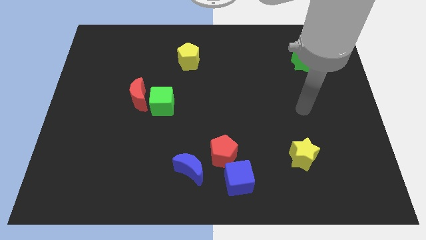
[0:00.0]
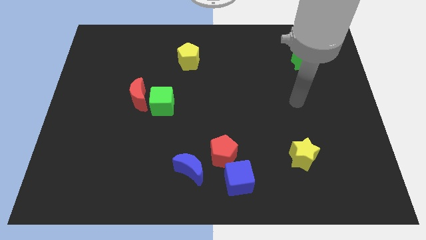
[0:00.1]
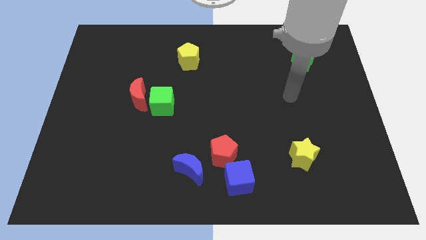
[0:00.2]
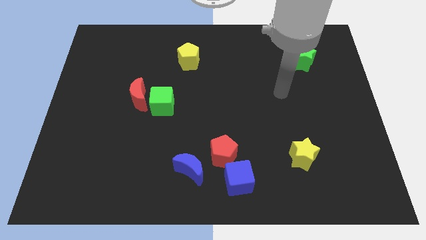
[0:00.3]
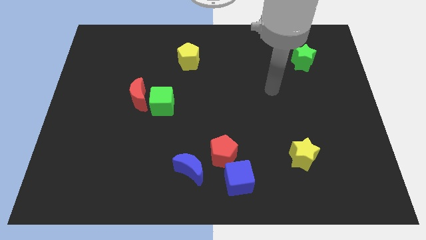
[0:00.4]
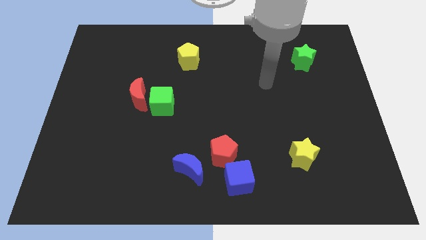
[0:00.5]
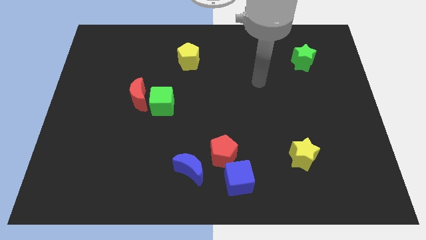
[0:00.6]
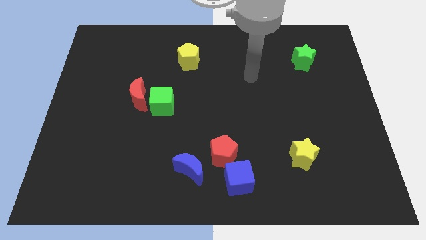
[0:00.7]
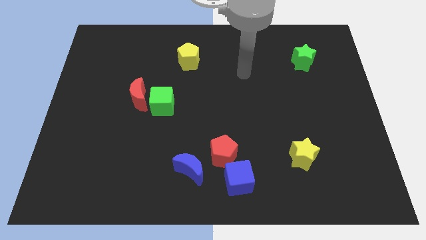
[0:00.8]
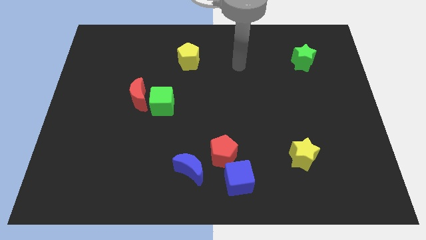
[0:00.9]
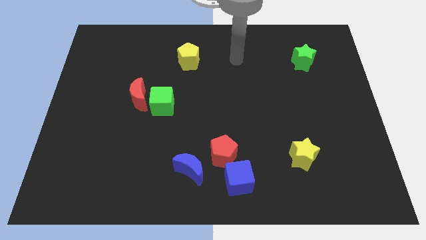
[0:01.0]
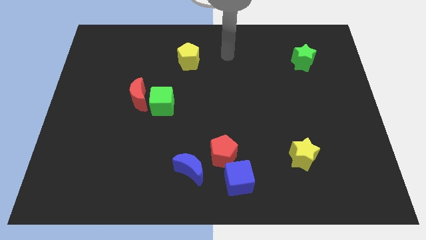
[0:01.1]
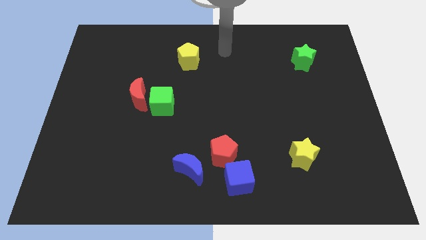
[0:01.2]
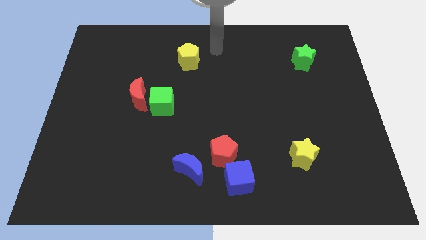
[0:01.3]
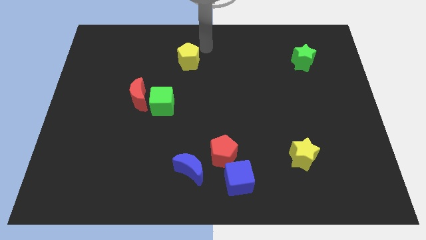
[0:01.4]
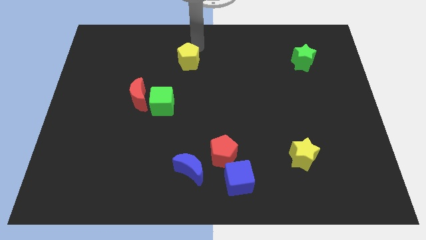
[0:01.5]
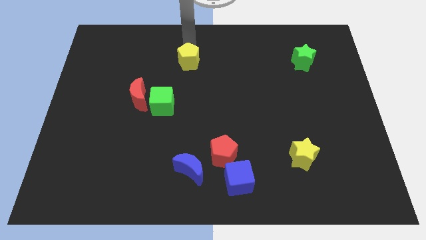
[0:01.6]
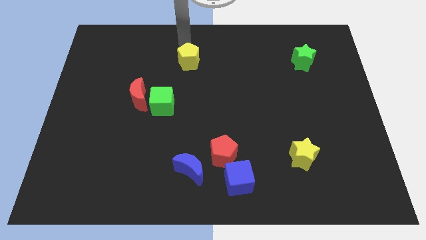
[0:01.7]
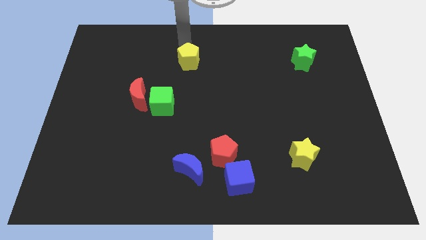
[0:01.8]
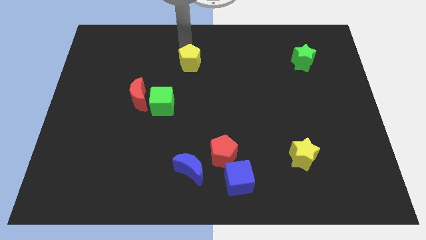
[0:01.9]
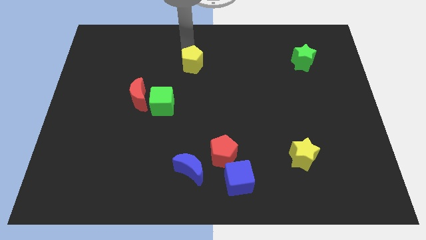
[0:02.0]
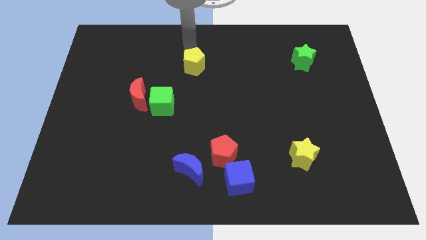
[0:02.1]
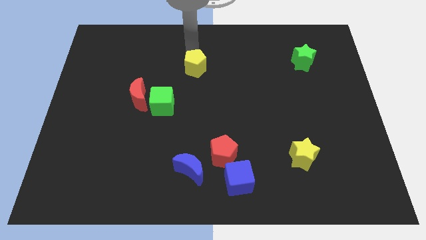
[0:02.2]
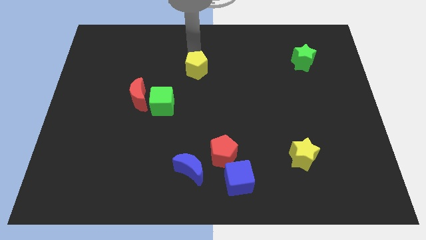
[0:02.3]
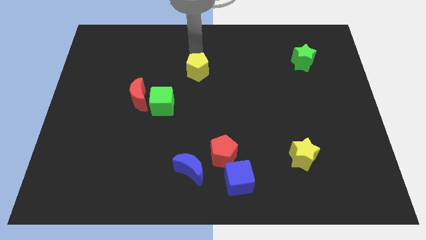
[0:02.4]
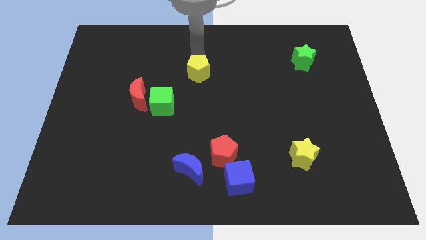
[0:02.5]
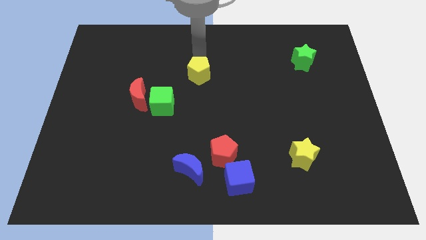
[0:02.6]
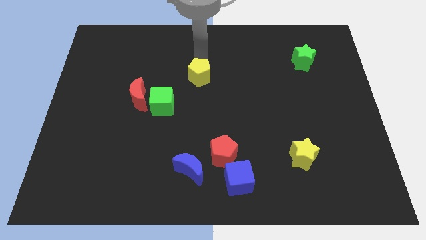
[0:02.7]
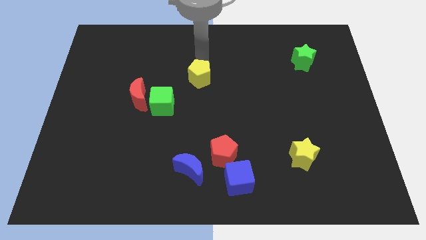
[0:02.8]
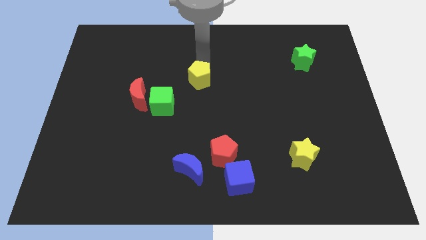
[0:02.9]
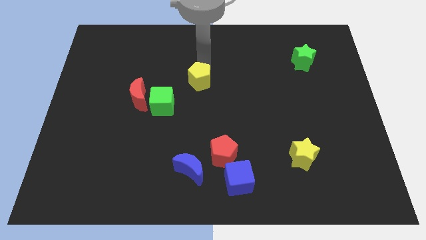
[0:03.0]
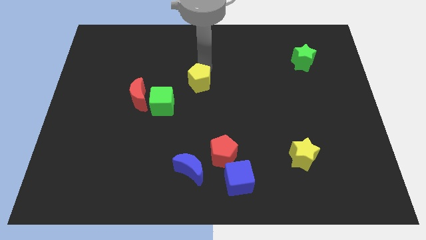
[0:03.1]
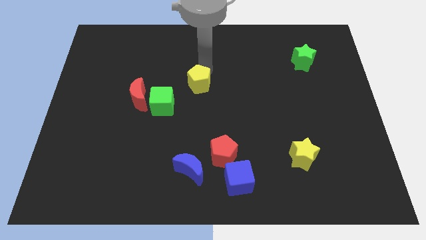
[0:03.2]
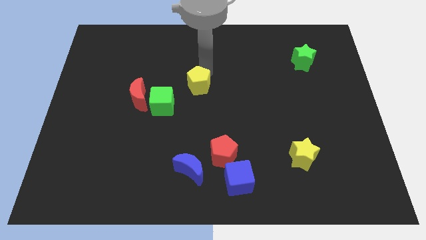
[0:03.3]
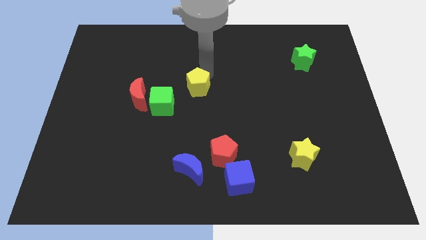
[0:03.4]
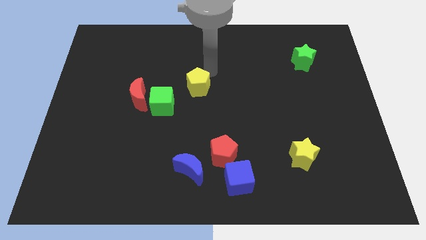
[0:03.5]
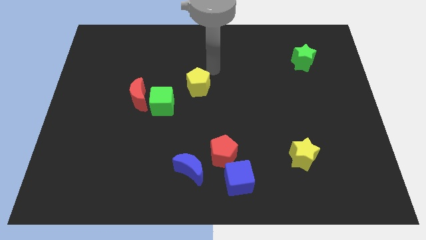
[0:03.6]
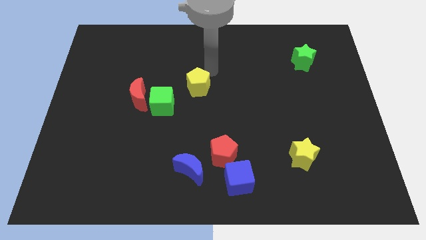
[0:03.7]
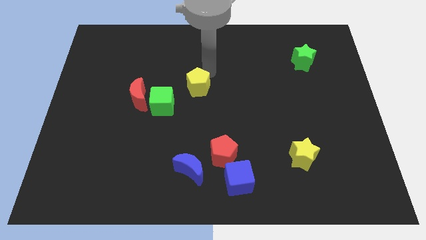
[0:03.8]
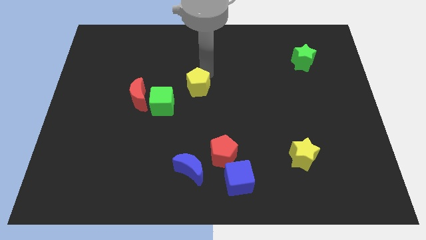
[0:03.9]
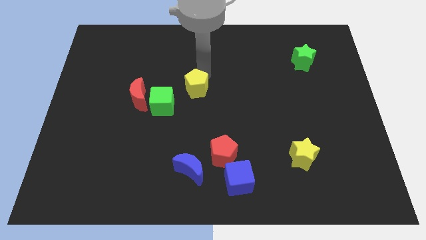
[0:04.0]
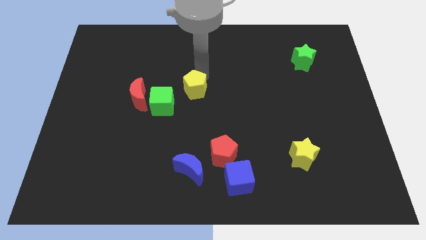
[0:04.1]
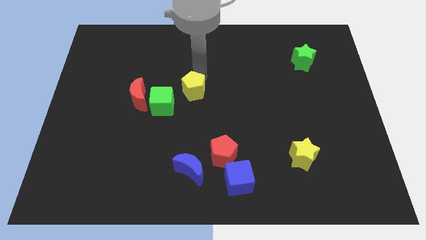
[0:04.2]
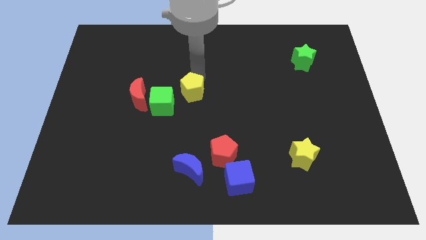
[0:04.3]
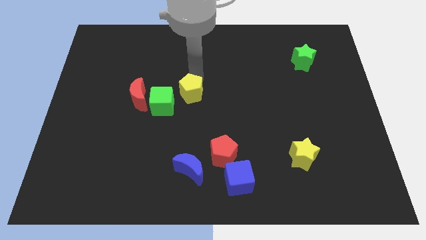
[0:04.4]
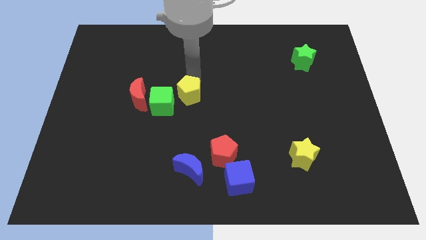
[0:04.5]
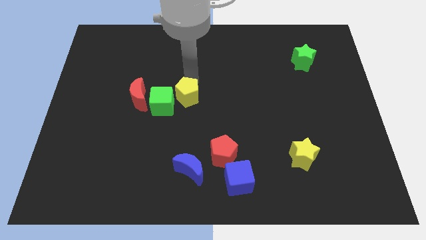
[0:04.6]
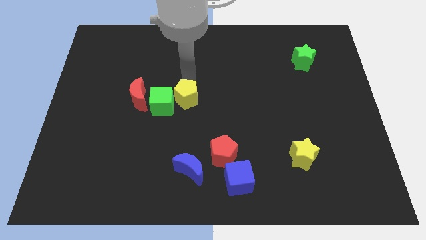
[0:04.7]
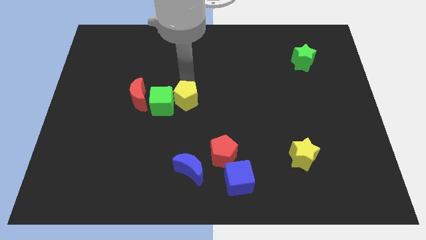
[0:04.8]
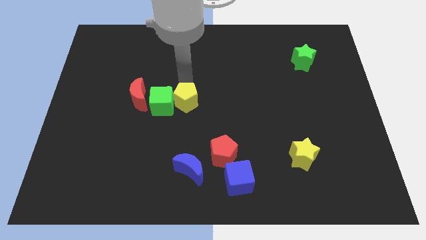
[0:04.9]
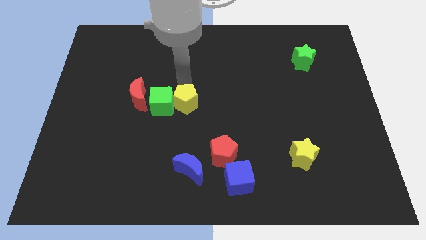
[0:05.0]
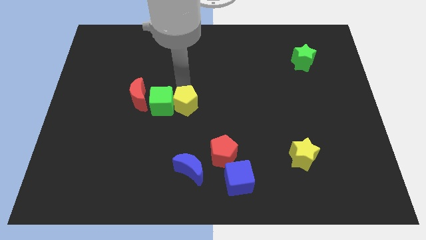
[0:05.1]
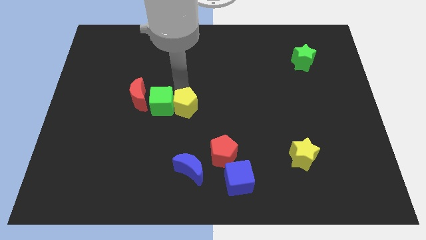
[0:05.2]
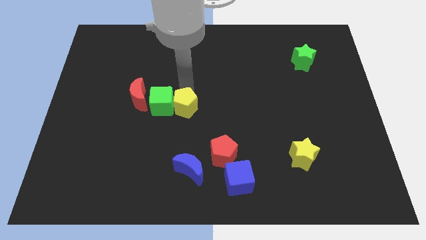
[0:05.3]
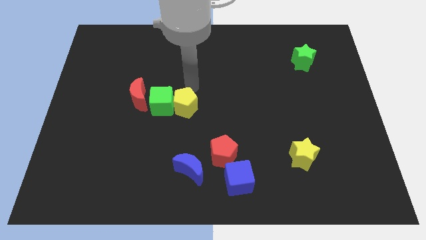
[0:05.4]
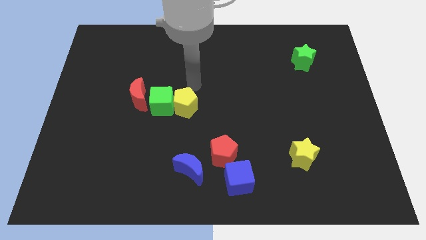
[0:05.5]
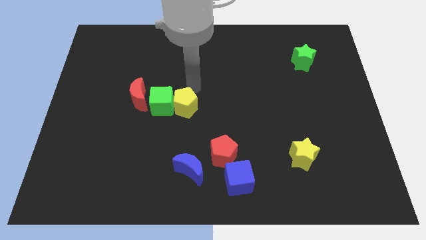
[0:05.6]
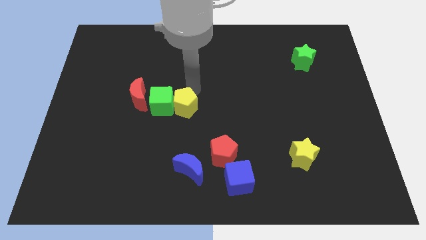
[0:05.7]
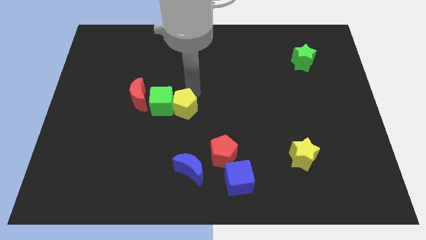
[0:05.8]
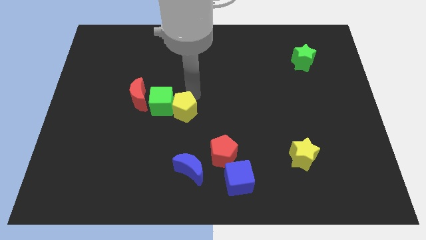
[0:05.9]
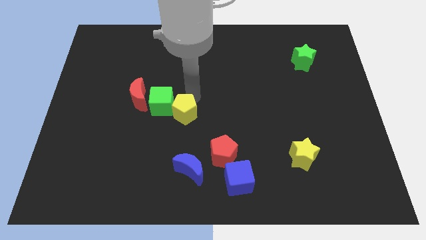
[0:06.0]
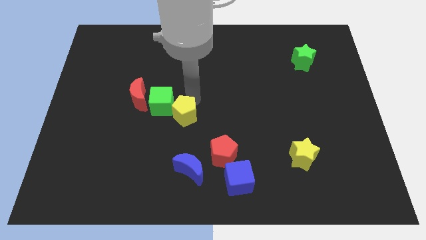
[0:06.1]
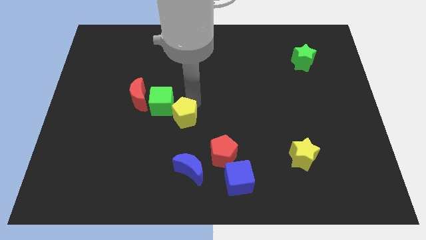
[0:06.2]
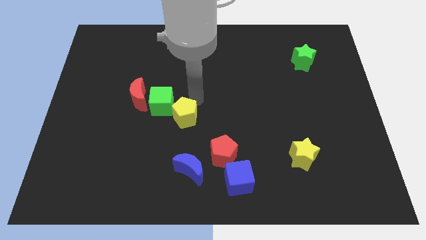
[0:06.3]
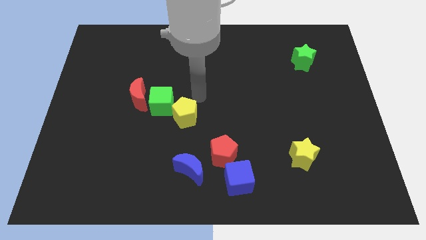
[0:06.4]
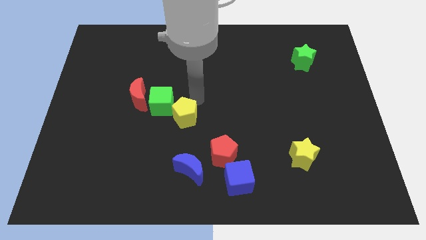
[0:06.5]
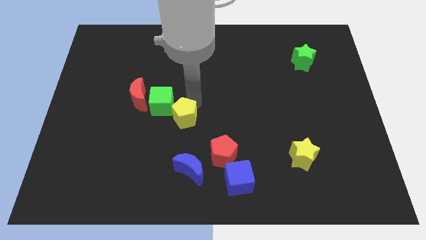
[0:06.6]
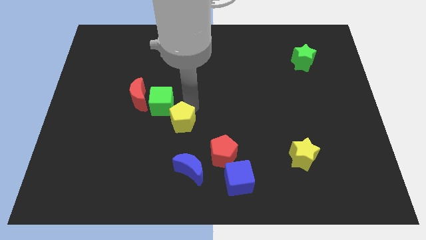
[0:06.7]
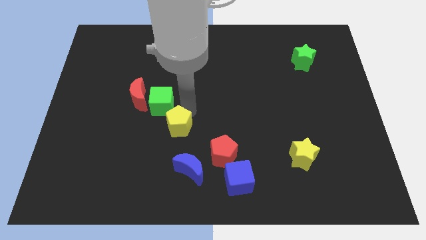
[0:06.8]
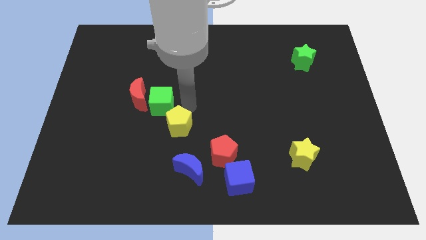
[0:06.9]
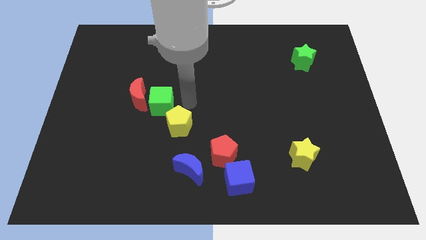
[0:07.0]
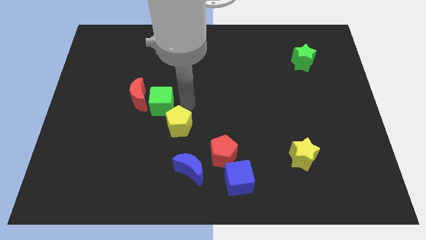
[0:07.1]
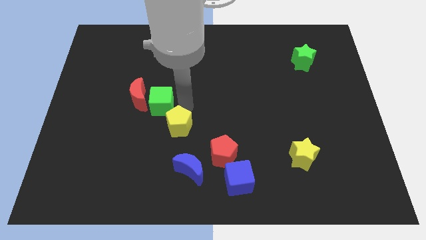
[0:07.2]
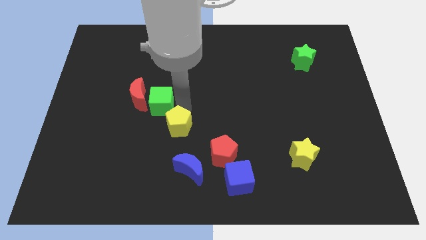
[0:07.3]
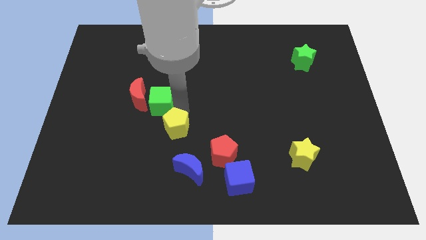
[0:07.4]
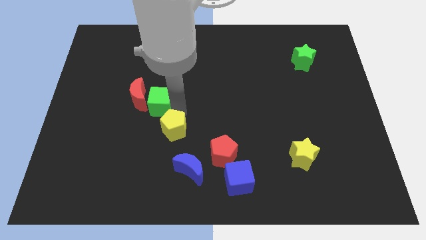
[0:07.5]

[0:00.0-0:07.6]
move the yellow pentagon to the top left of the blue moon
